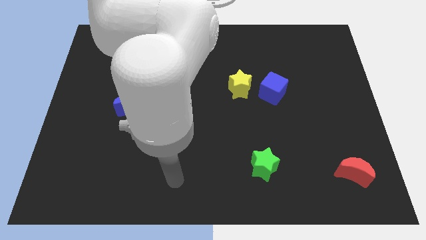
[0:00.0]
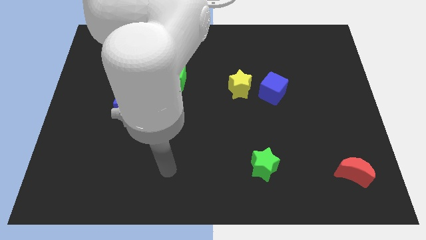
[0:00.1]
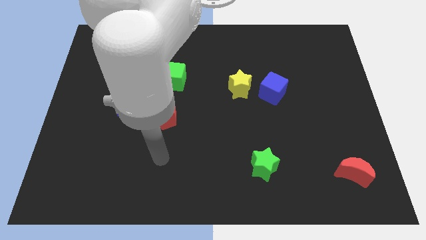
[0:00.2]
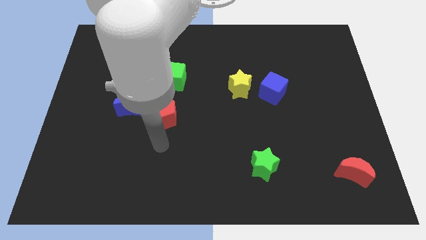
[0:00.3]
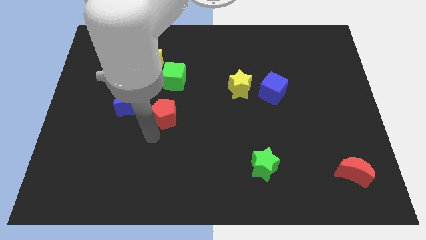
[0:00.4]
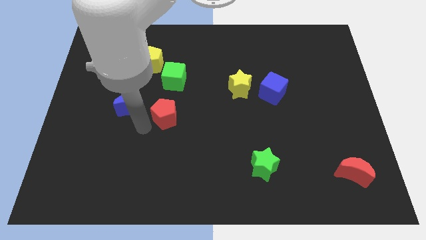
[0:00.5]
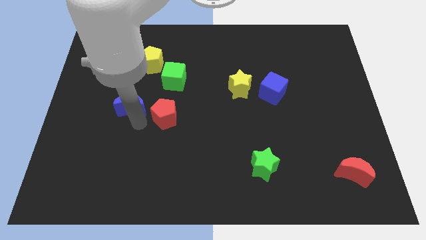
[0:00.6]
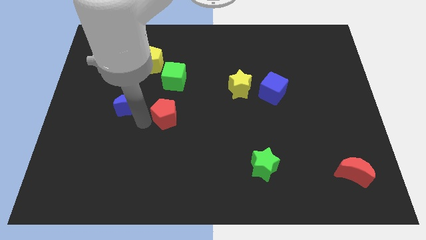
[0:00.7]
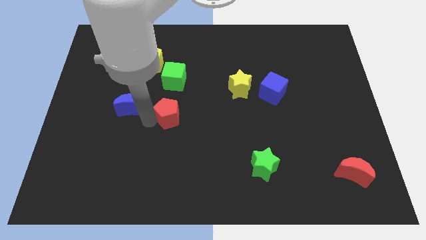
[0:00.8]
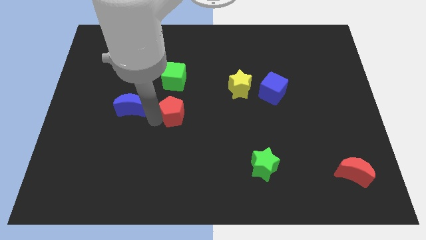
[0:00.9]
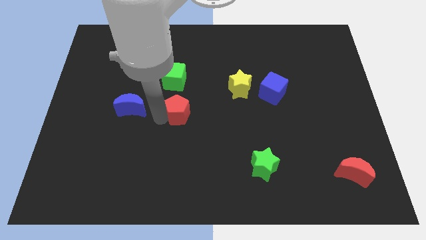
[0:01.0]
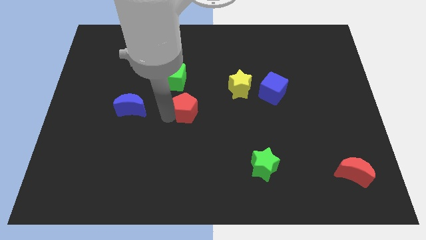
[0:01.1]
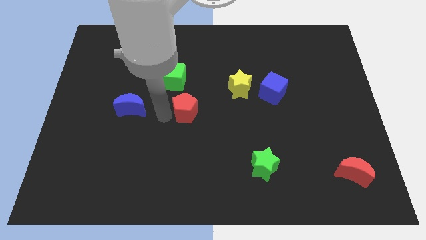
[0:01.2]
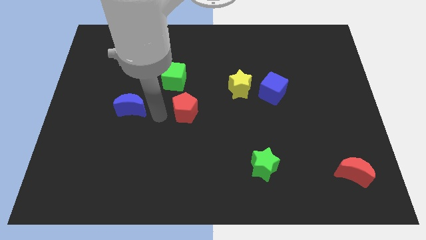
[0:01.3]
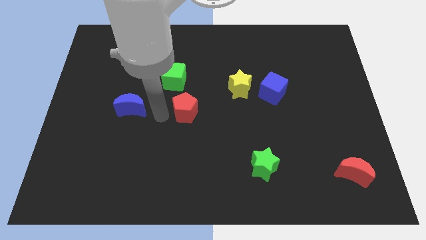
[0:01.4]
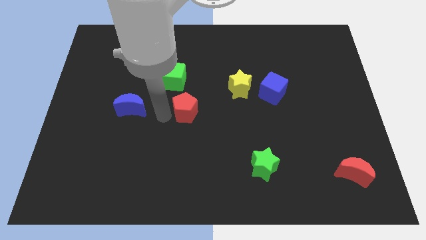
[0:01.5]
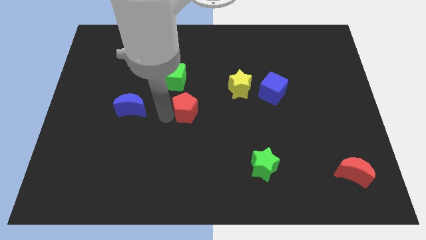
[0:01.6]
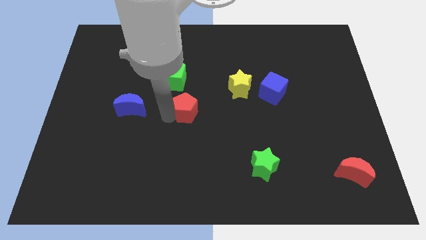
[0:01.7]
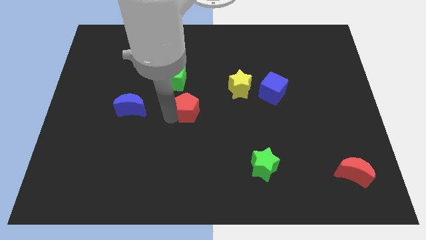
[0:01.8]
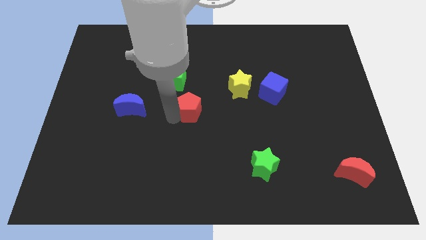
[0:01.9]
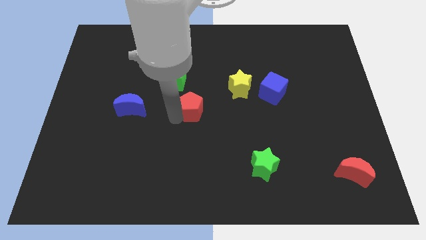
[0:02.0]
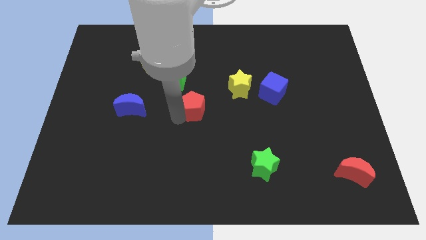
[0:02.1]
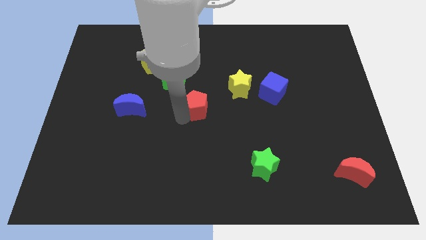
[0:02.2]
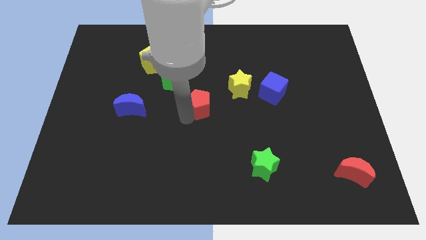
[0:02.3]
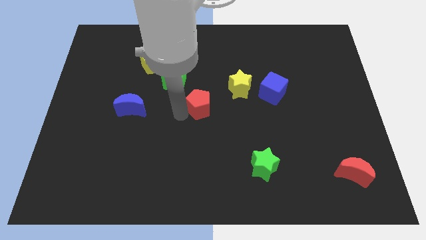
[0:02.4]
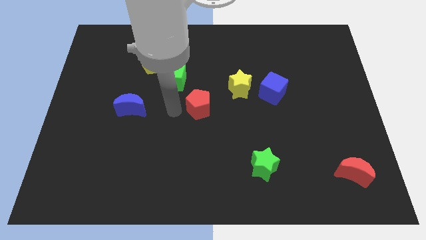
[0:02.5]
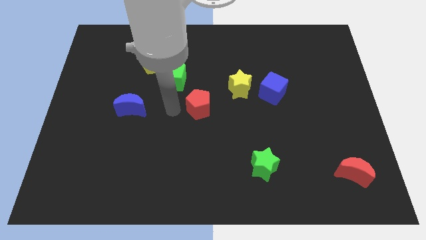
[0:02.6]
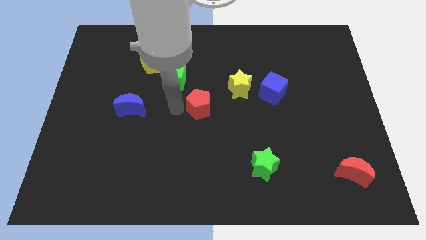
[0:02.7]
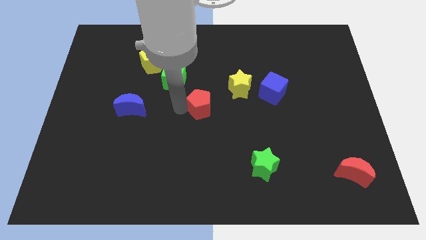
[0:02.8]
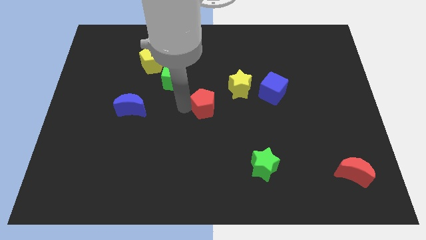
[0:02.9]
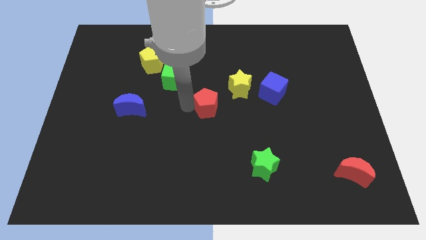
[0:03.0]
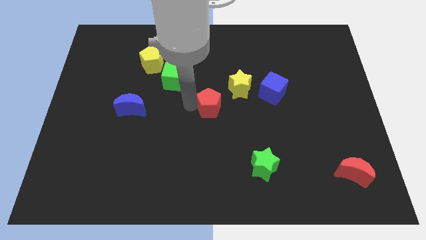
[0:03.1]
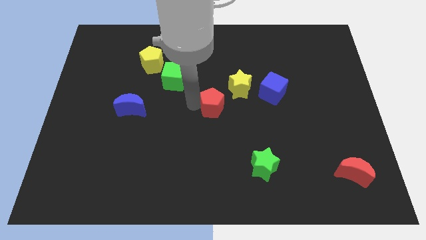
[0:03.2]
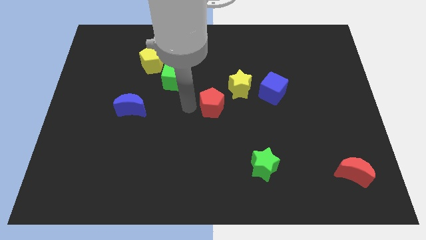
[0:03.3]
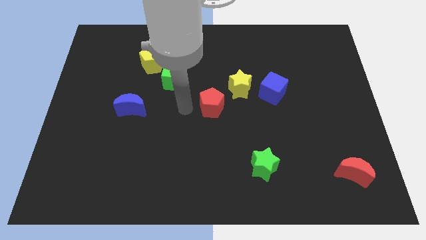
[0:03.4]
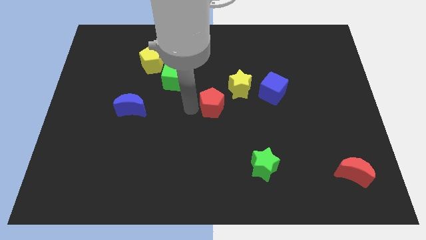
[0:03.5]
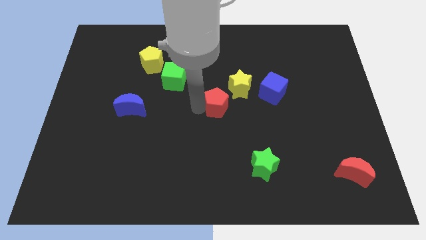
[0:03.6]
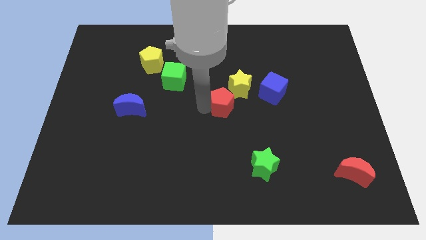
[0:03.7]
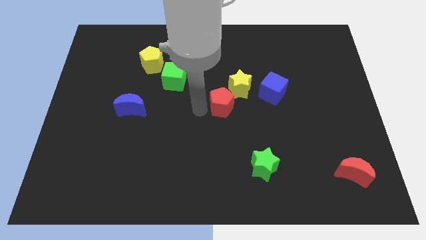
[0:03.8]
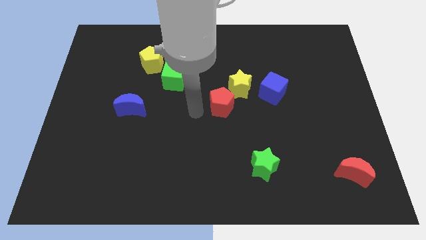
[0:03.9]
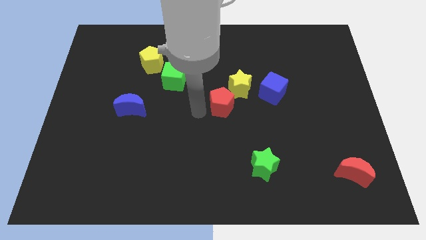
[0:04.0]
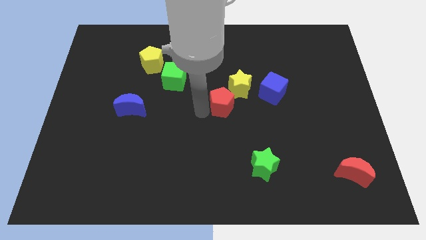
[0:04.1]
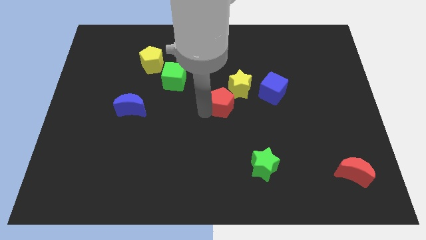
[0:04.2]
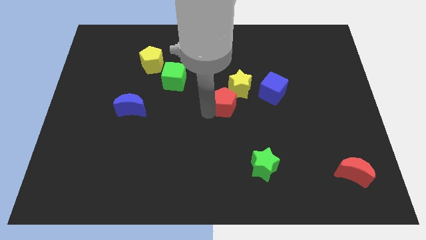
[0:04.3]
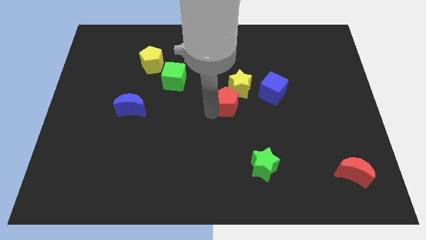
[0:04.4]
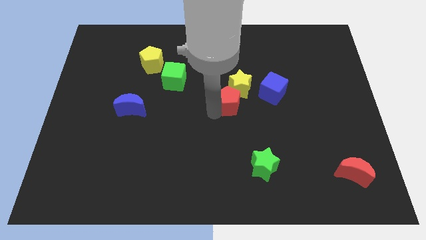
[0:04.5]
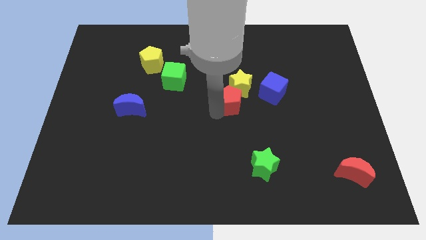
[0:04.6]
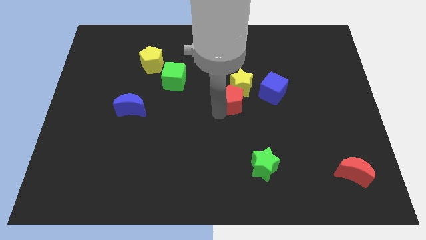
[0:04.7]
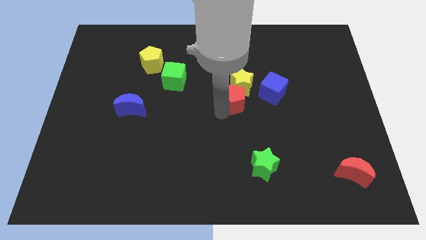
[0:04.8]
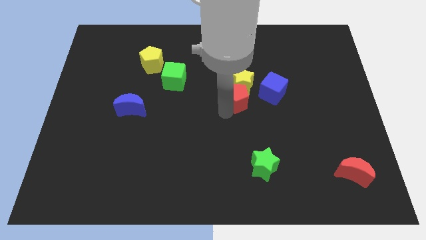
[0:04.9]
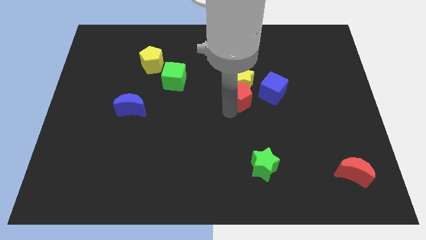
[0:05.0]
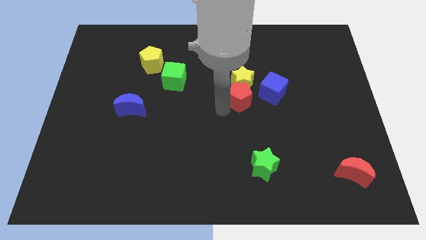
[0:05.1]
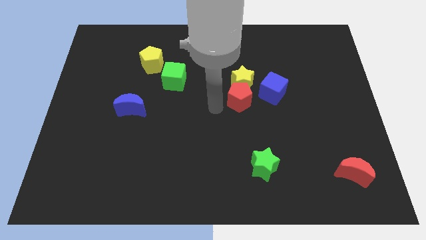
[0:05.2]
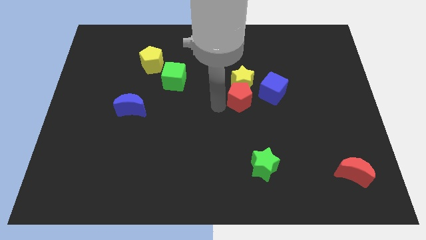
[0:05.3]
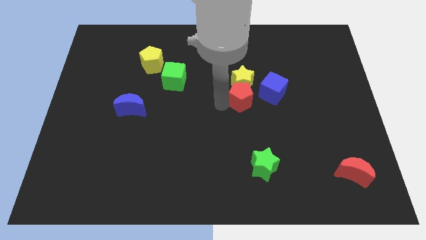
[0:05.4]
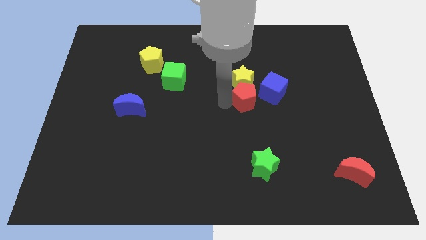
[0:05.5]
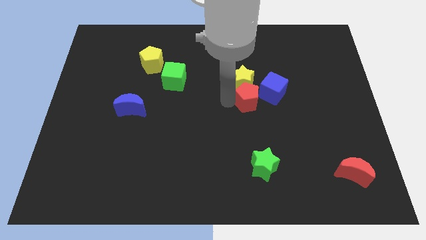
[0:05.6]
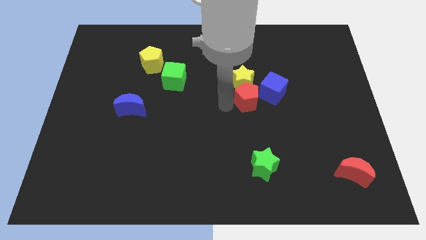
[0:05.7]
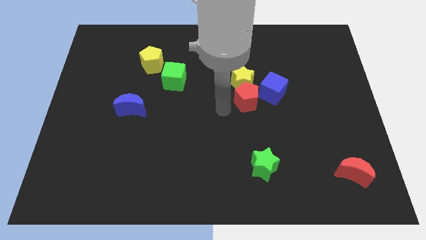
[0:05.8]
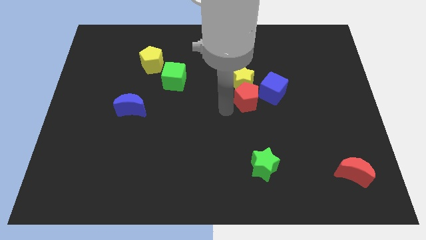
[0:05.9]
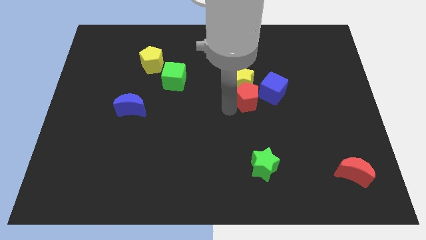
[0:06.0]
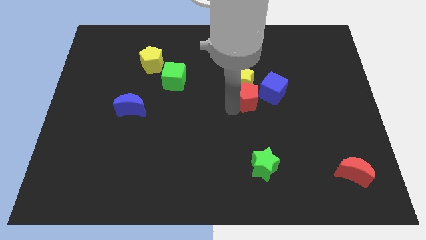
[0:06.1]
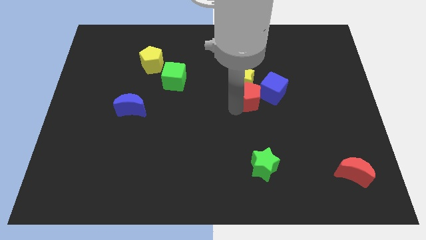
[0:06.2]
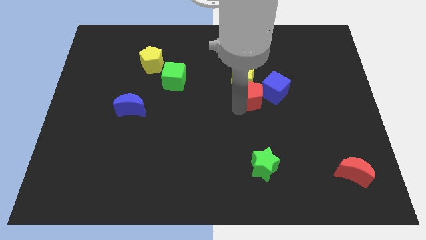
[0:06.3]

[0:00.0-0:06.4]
slide the red pentagon next to the blue cube

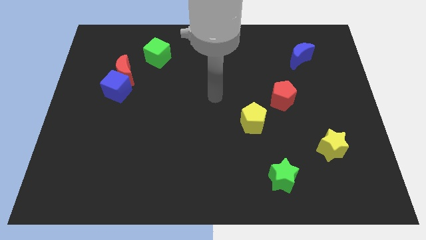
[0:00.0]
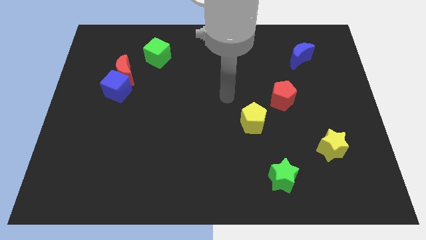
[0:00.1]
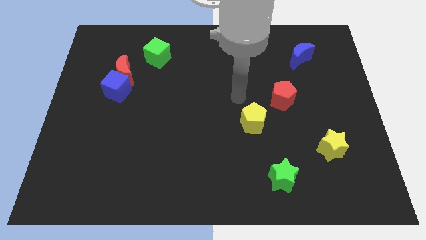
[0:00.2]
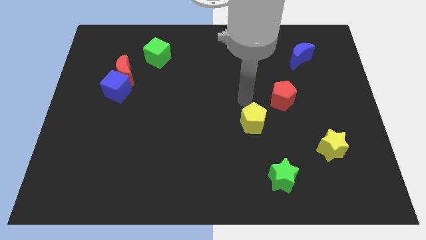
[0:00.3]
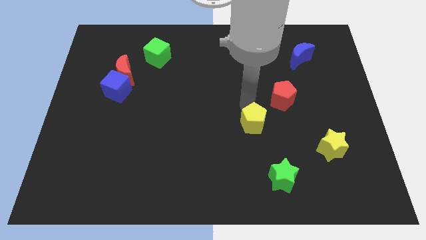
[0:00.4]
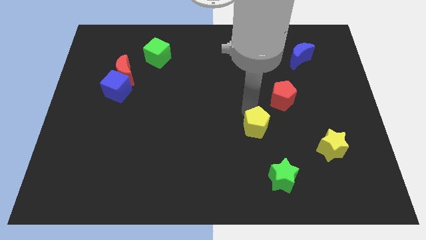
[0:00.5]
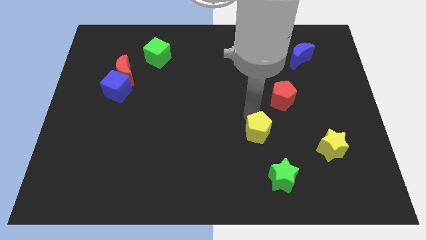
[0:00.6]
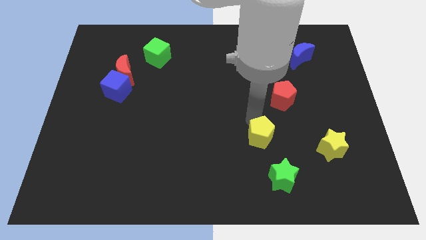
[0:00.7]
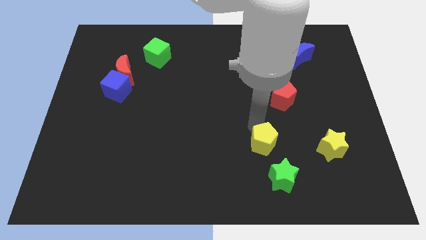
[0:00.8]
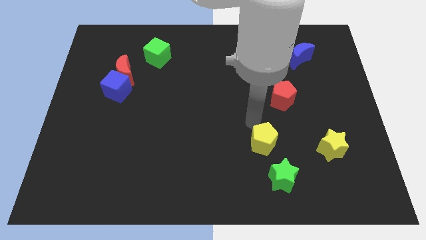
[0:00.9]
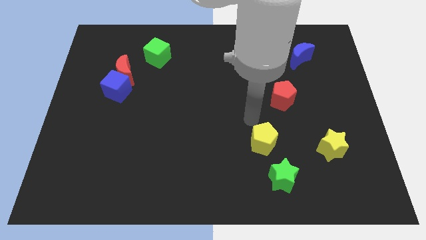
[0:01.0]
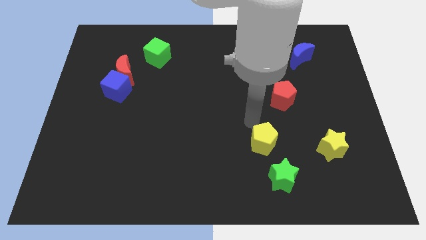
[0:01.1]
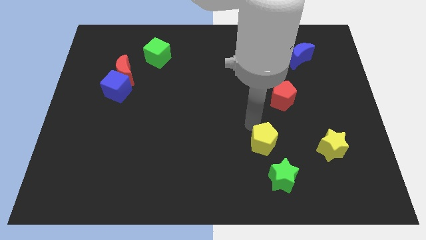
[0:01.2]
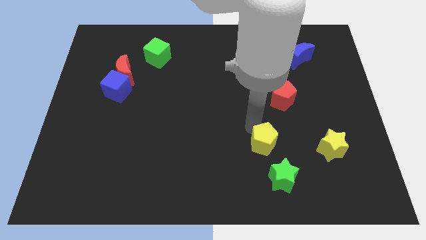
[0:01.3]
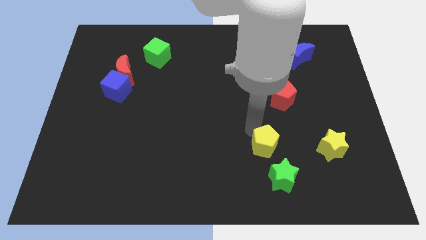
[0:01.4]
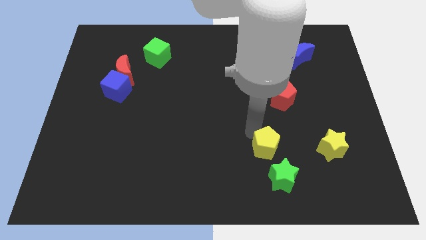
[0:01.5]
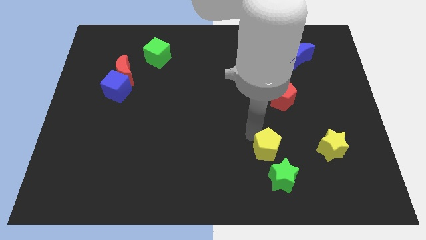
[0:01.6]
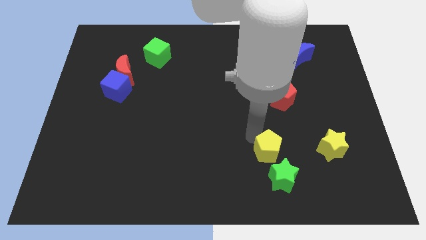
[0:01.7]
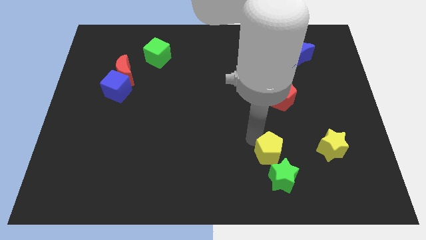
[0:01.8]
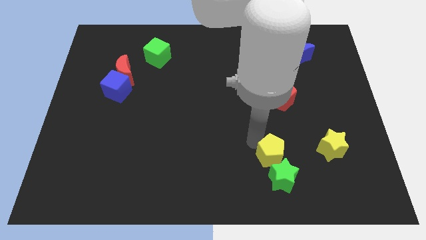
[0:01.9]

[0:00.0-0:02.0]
slide the yellow pentagon to the green star
